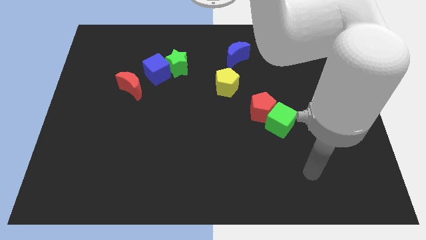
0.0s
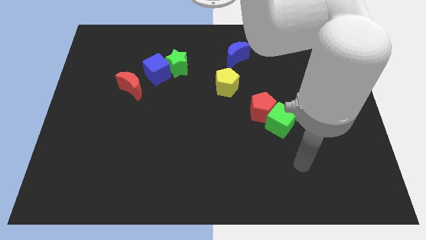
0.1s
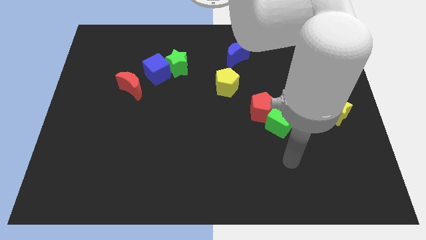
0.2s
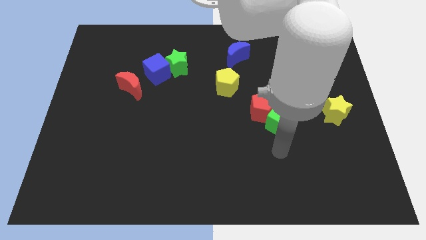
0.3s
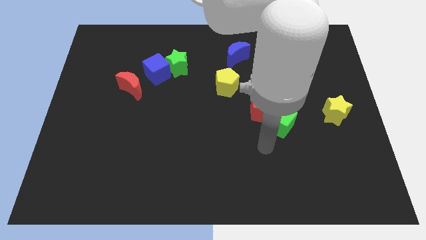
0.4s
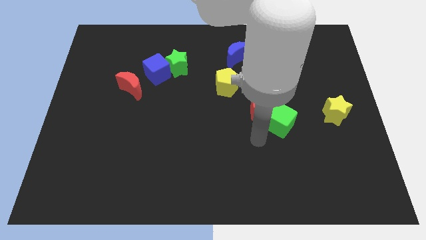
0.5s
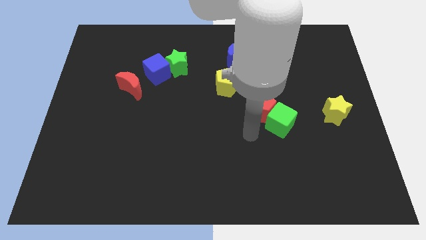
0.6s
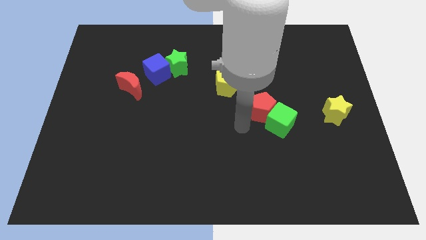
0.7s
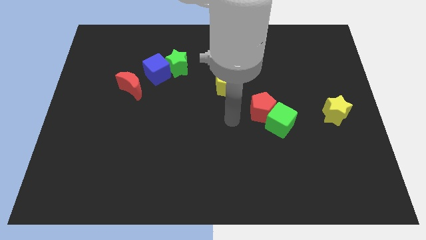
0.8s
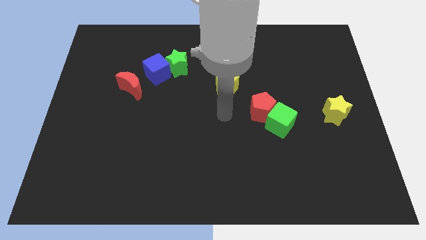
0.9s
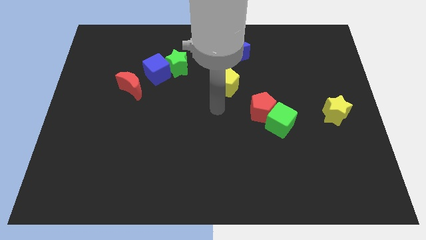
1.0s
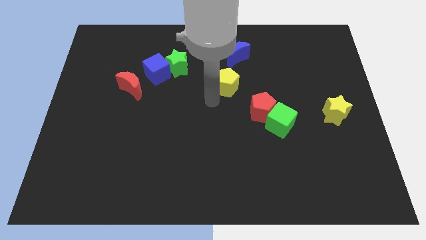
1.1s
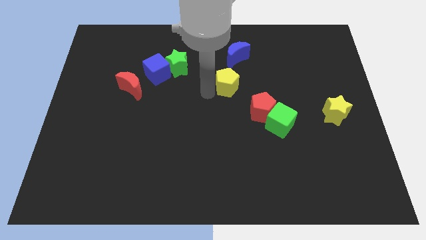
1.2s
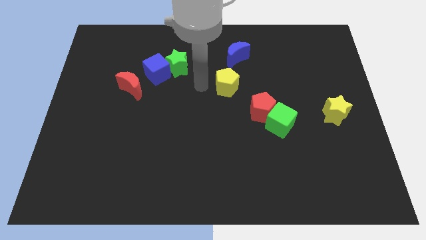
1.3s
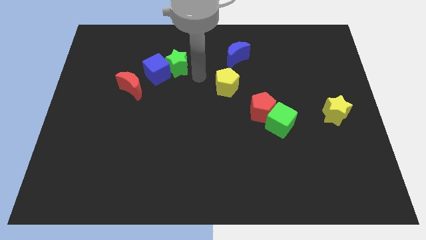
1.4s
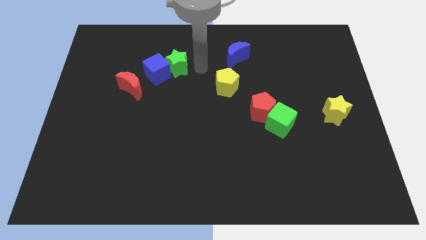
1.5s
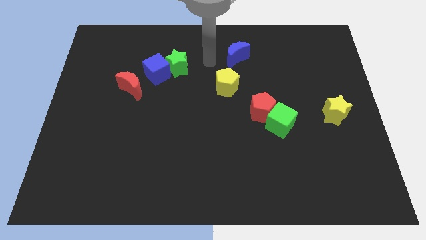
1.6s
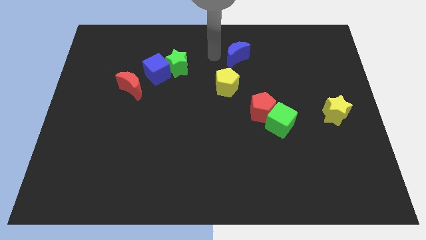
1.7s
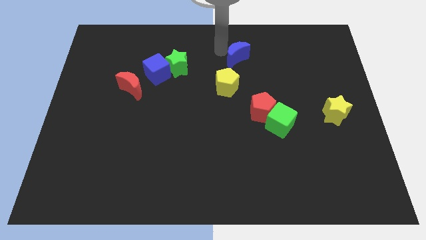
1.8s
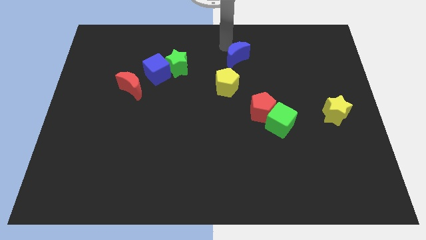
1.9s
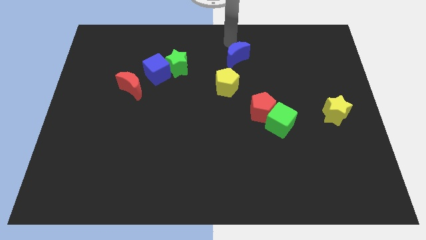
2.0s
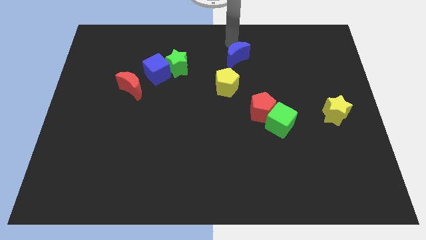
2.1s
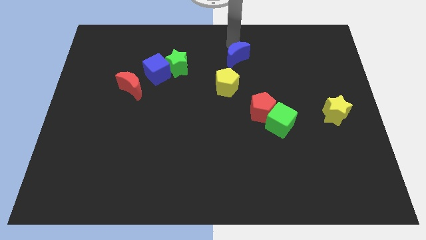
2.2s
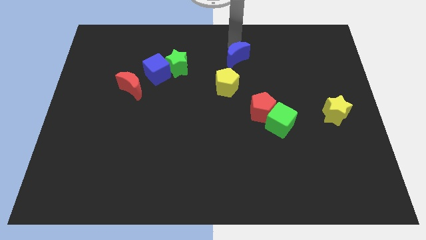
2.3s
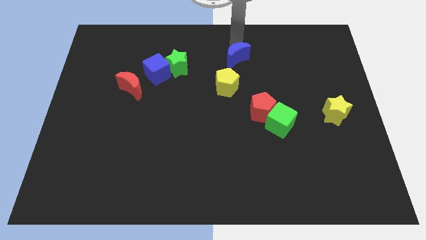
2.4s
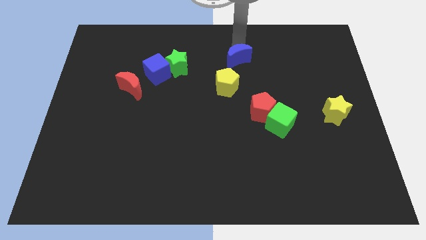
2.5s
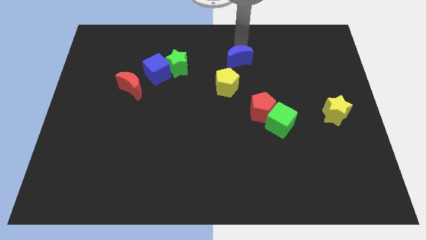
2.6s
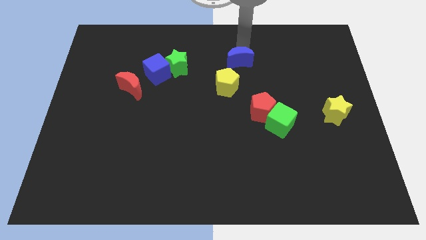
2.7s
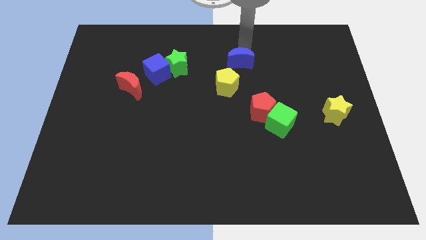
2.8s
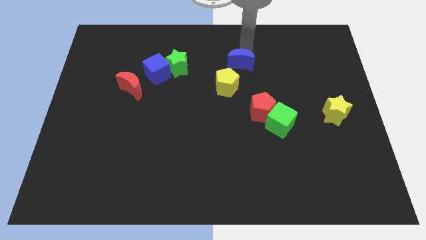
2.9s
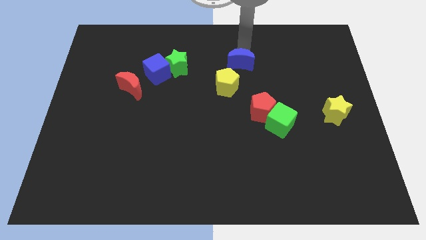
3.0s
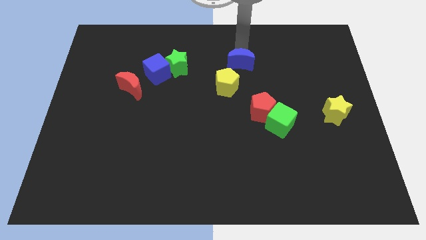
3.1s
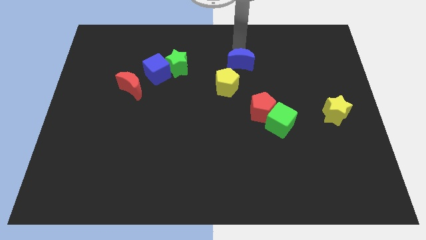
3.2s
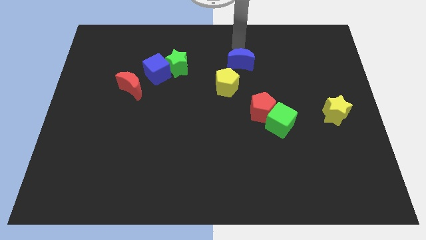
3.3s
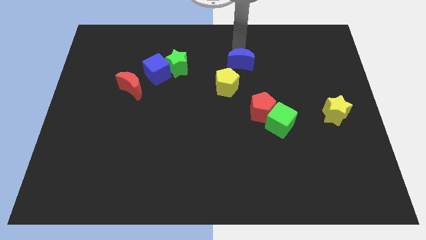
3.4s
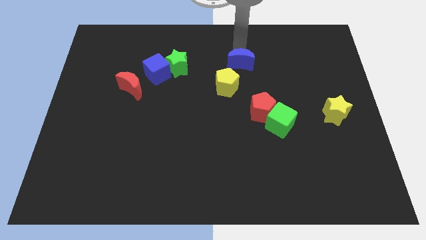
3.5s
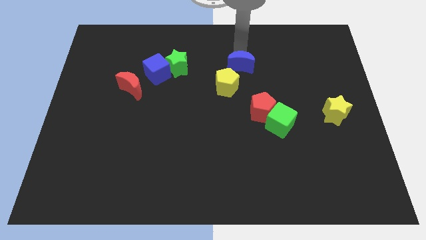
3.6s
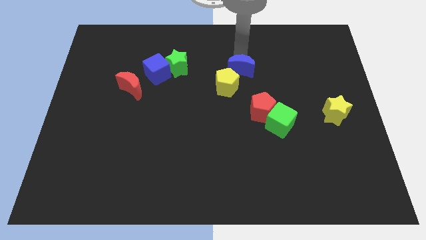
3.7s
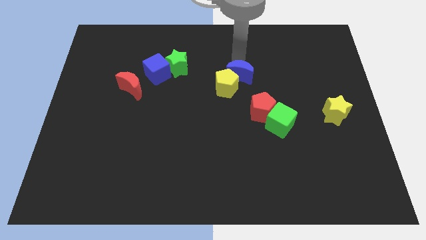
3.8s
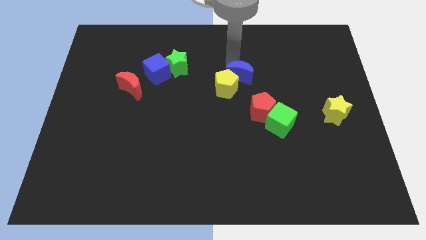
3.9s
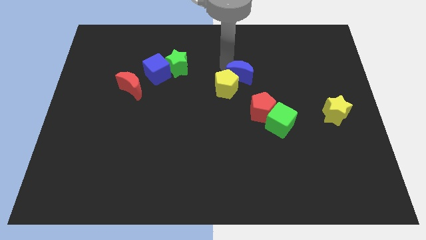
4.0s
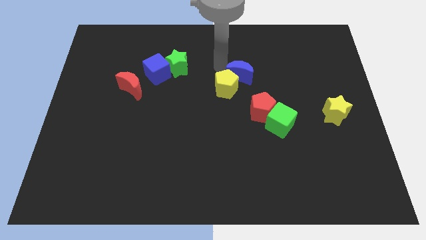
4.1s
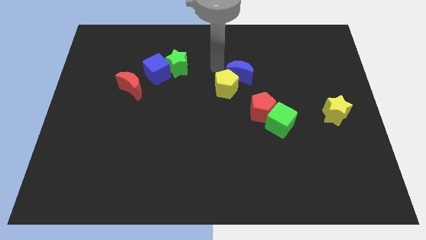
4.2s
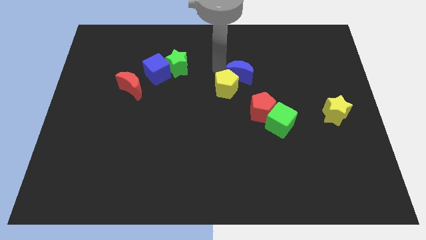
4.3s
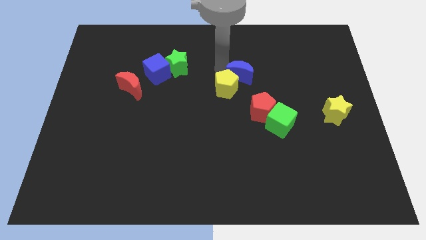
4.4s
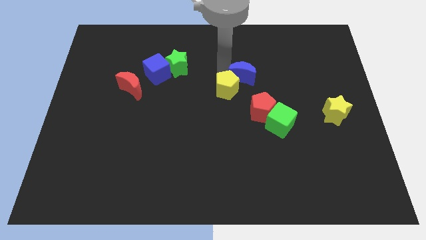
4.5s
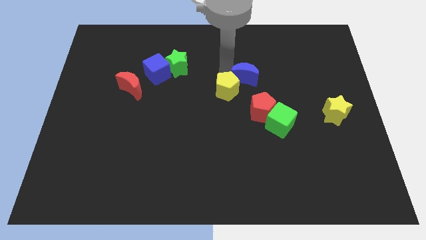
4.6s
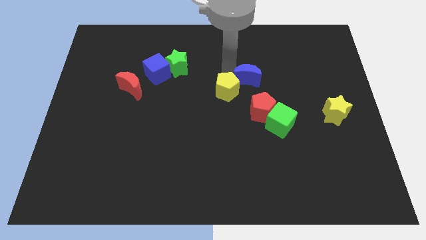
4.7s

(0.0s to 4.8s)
push the blue moon a bit diagonally downwards and right

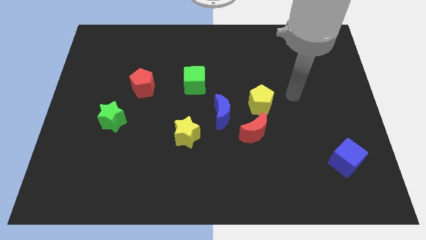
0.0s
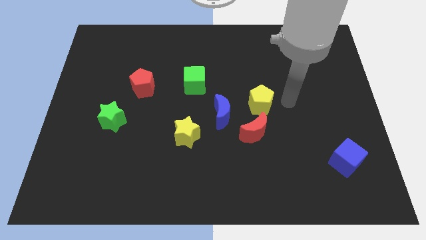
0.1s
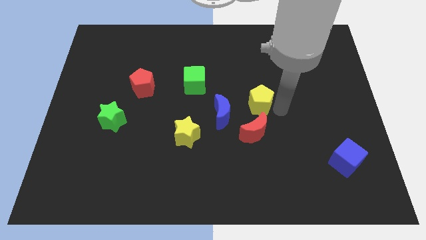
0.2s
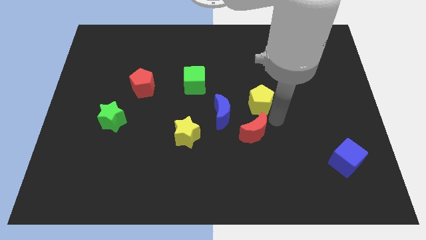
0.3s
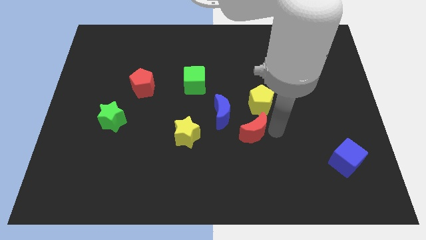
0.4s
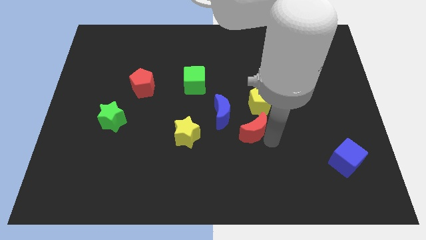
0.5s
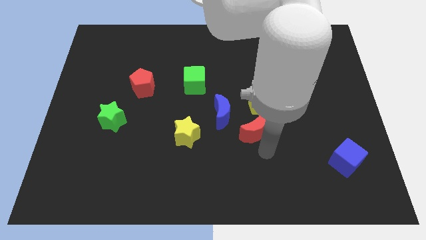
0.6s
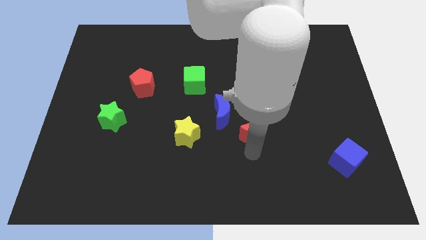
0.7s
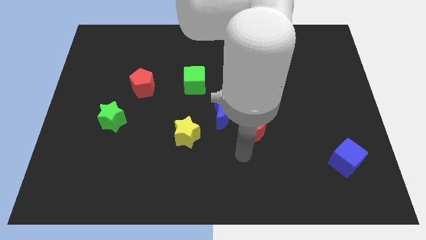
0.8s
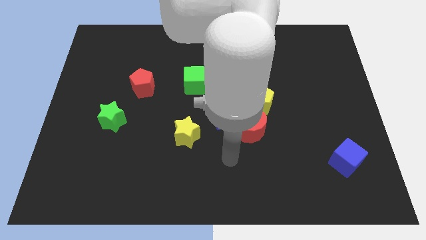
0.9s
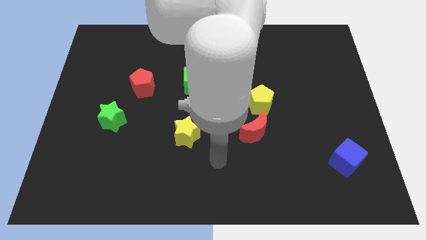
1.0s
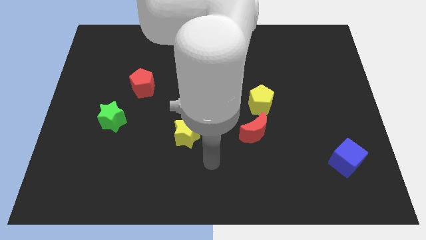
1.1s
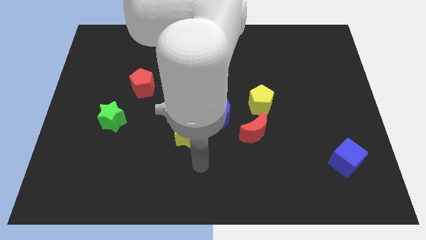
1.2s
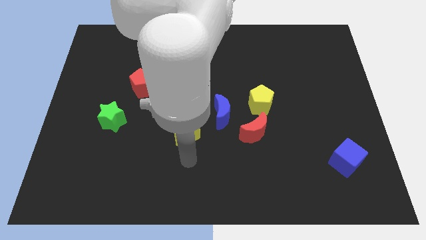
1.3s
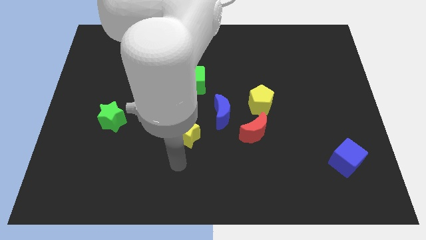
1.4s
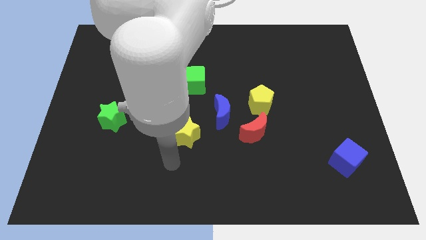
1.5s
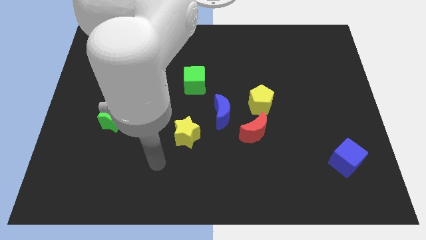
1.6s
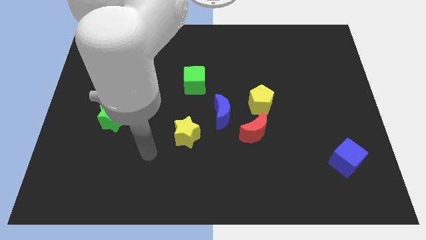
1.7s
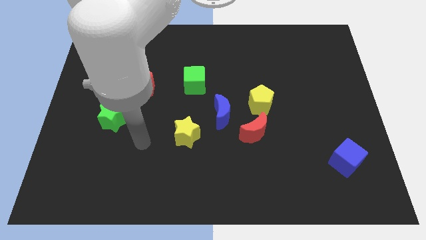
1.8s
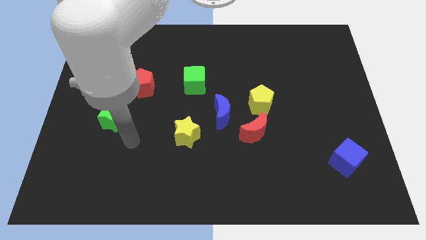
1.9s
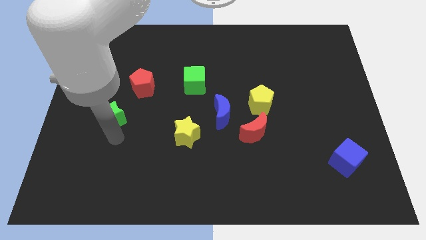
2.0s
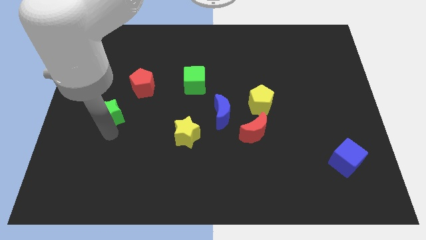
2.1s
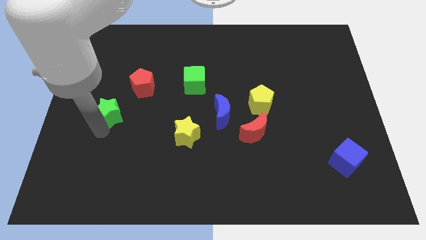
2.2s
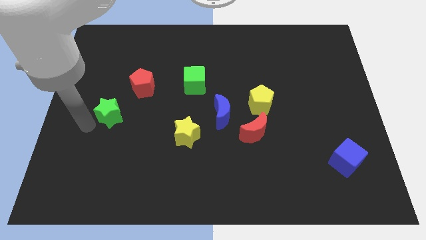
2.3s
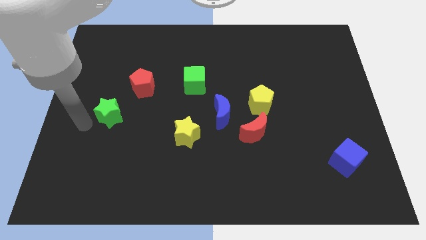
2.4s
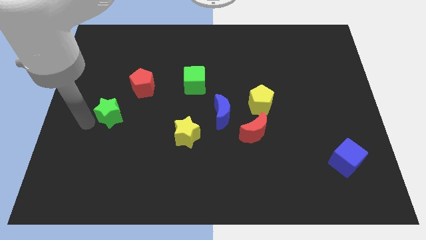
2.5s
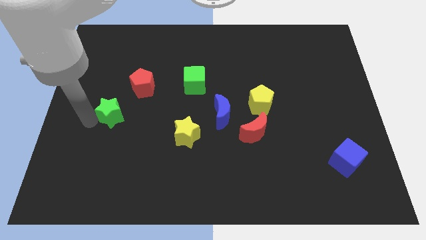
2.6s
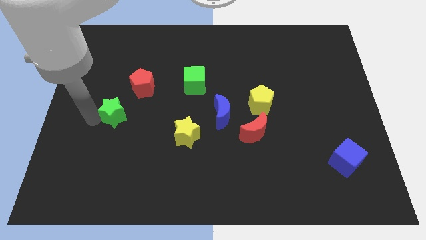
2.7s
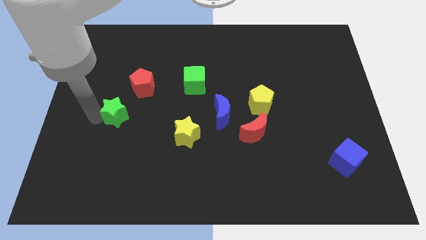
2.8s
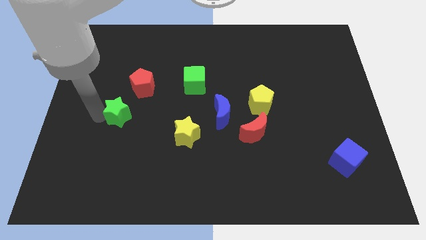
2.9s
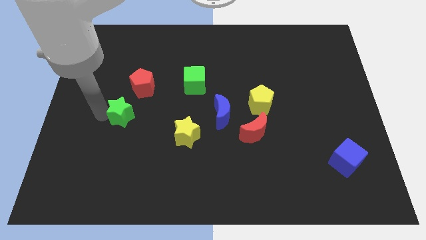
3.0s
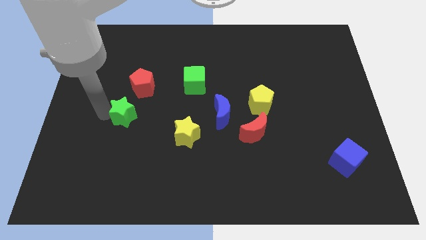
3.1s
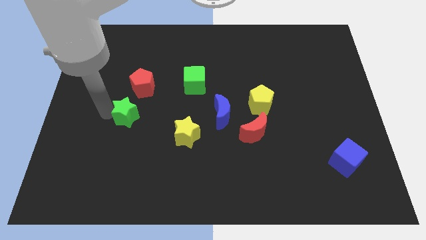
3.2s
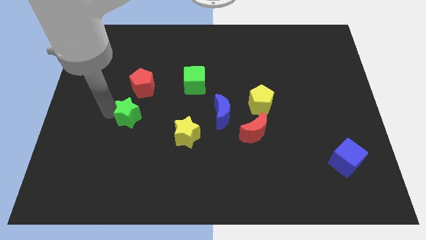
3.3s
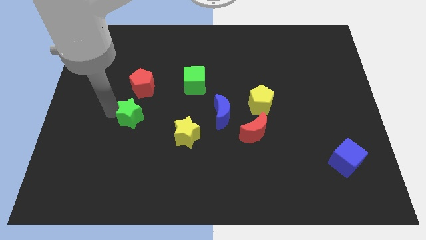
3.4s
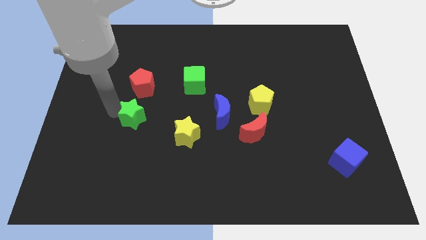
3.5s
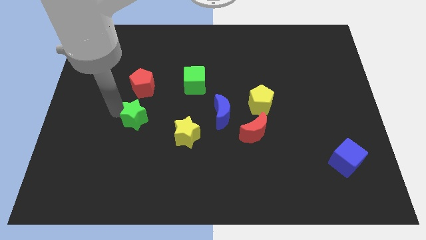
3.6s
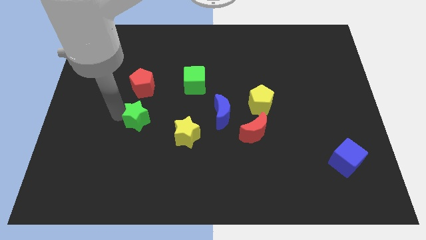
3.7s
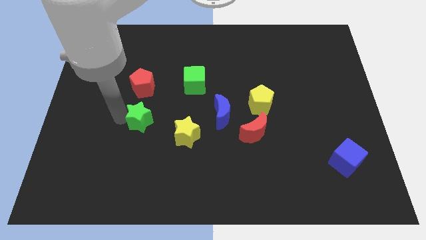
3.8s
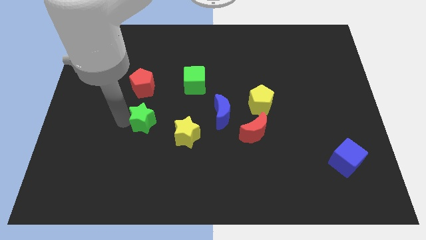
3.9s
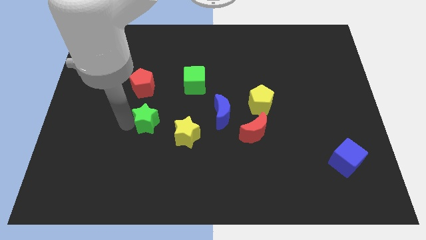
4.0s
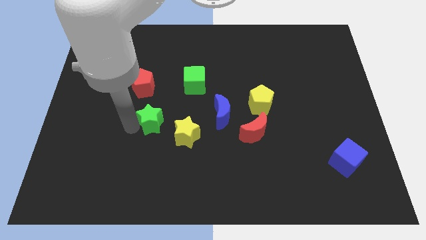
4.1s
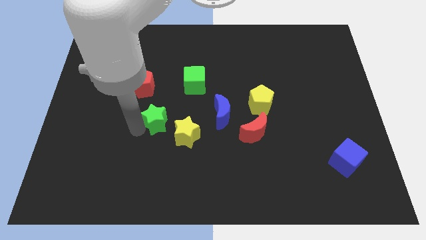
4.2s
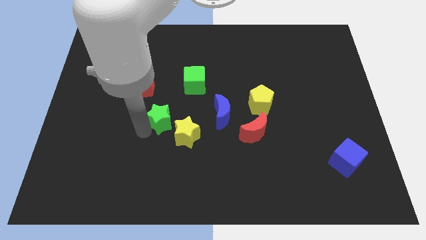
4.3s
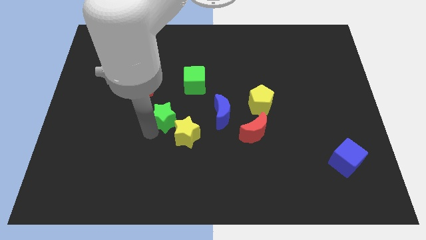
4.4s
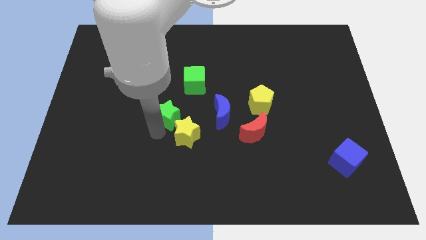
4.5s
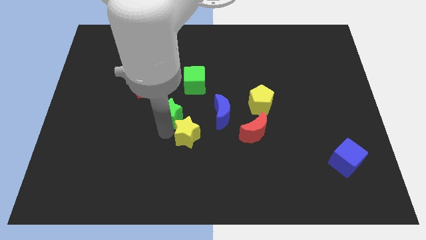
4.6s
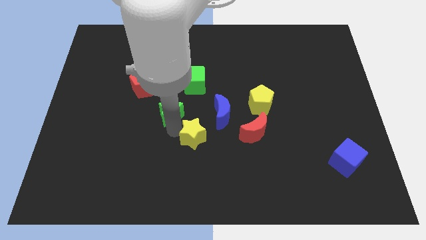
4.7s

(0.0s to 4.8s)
slightly slide the green star diagonally up and right
